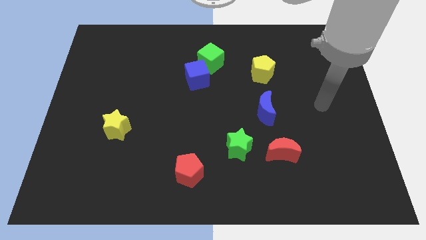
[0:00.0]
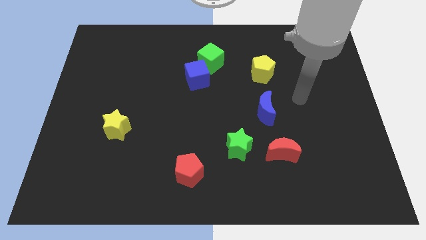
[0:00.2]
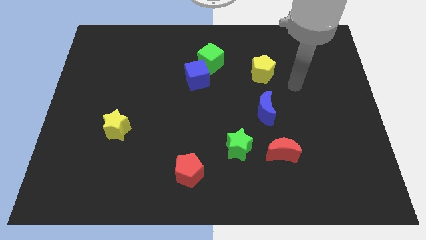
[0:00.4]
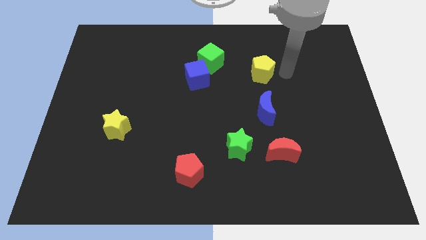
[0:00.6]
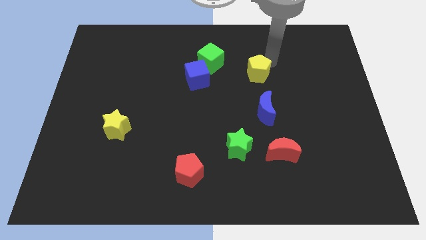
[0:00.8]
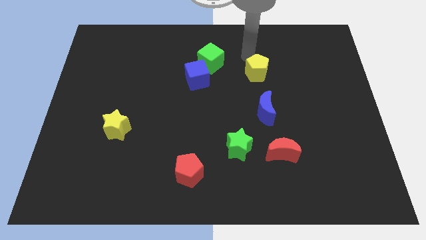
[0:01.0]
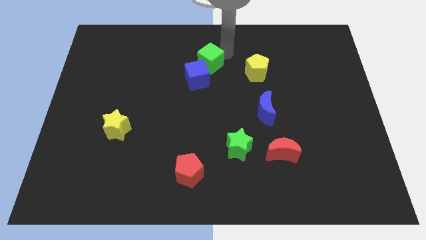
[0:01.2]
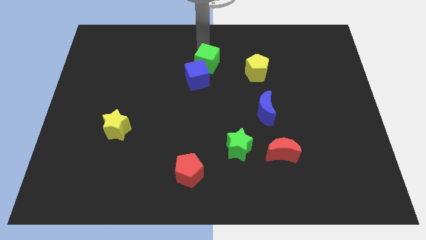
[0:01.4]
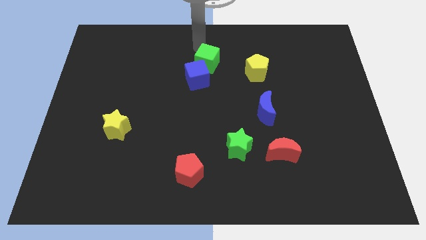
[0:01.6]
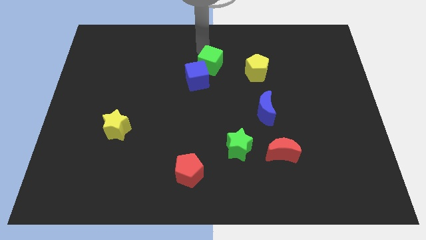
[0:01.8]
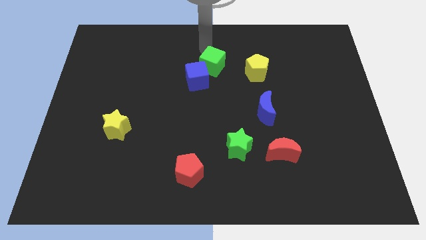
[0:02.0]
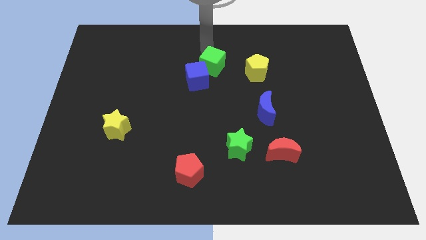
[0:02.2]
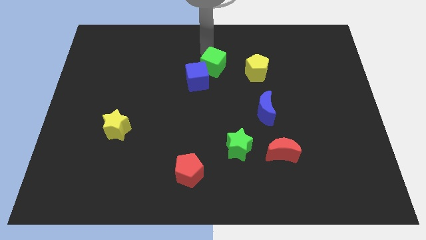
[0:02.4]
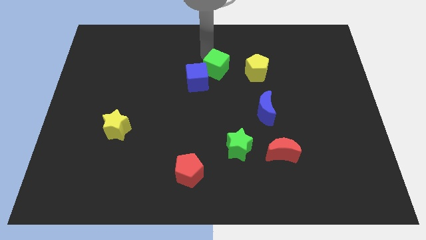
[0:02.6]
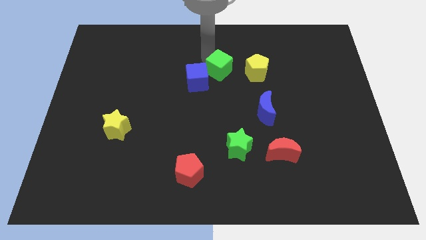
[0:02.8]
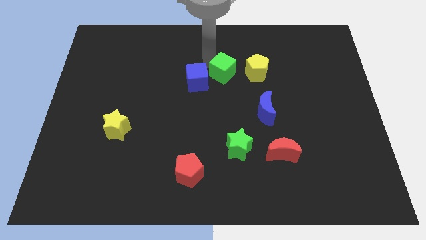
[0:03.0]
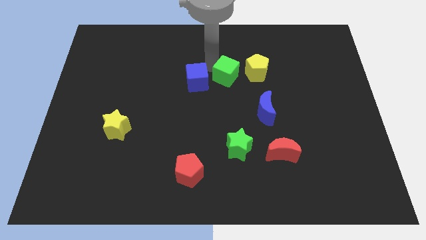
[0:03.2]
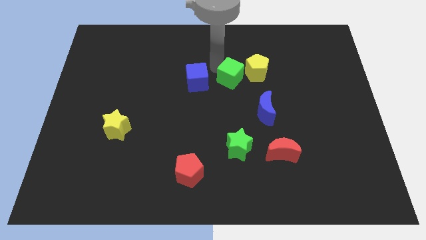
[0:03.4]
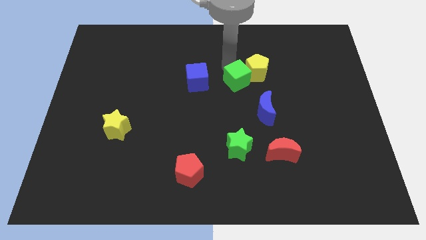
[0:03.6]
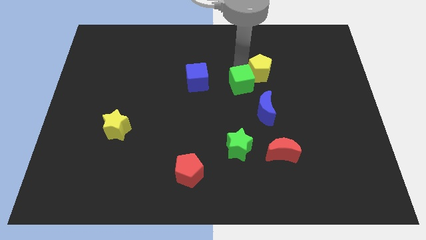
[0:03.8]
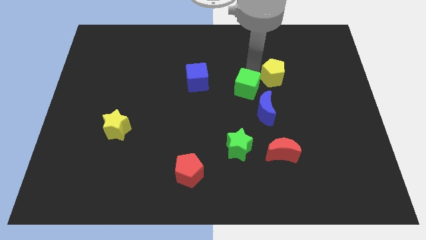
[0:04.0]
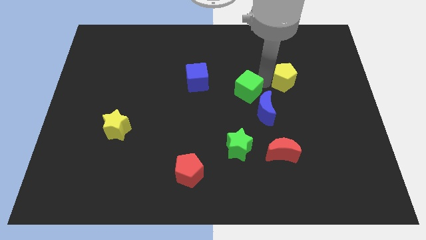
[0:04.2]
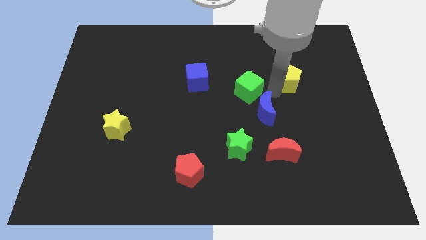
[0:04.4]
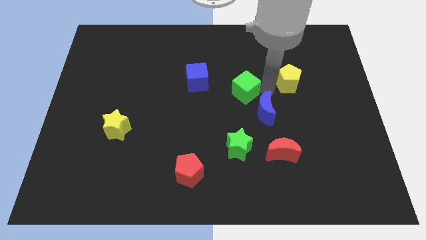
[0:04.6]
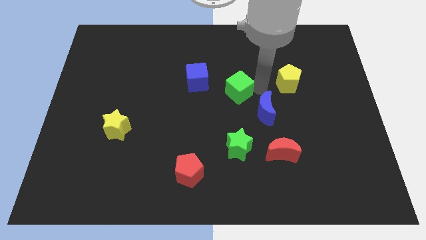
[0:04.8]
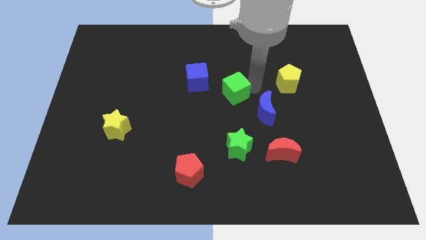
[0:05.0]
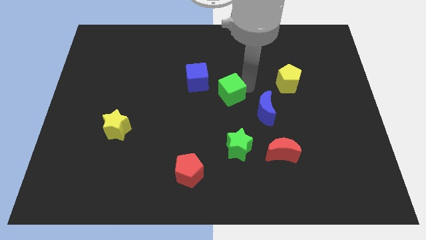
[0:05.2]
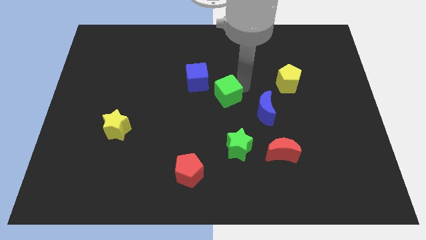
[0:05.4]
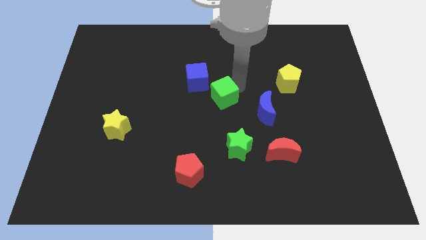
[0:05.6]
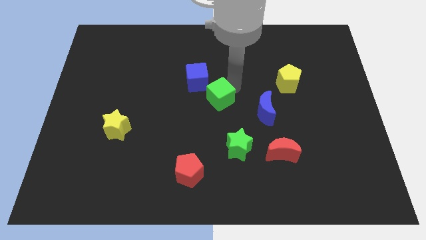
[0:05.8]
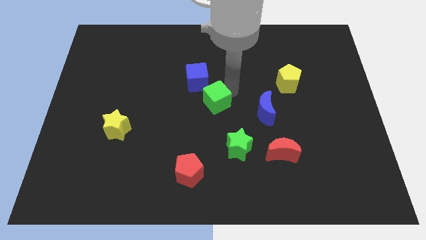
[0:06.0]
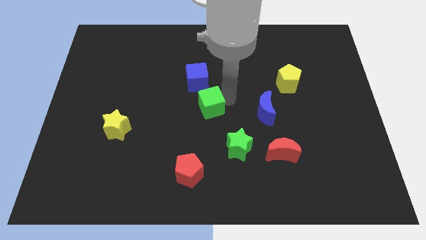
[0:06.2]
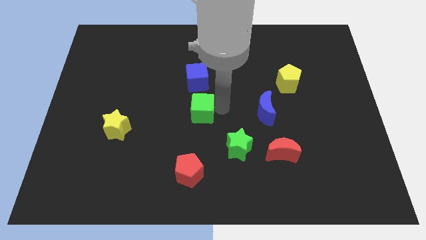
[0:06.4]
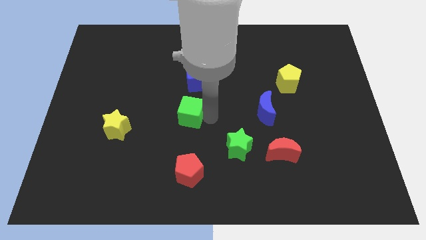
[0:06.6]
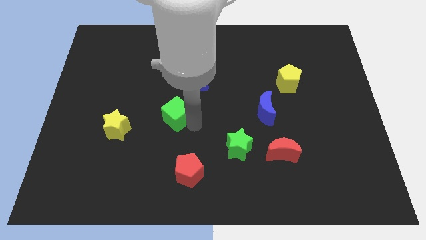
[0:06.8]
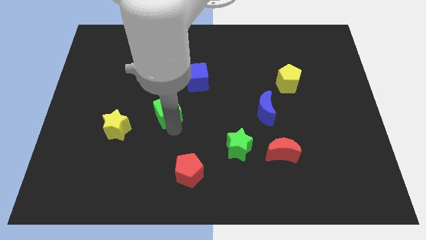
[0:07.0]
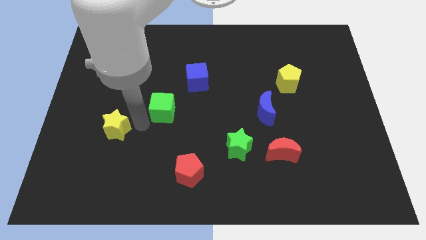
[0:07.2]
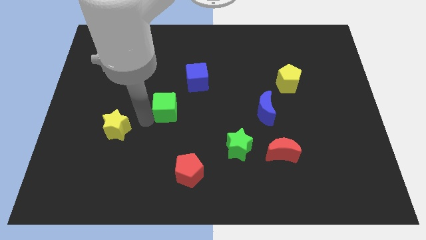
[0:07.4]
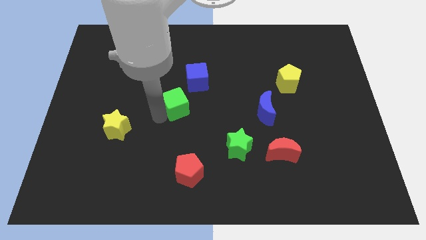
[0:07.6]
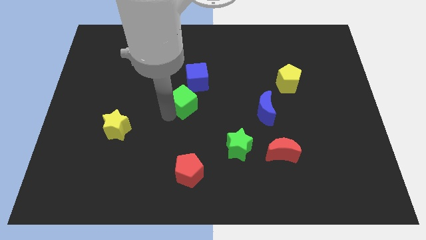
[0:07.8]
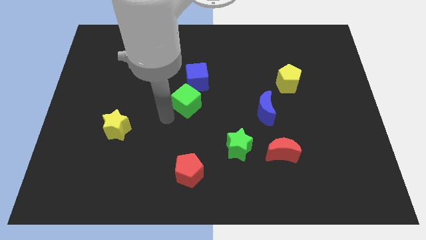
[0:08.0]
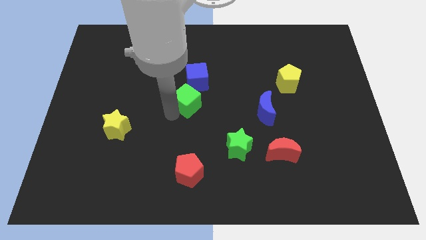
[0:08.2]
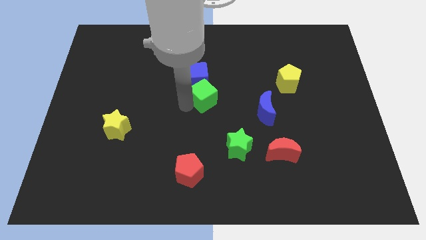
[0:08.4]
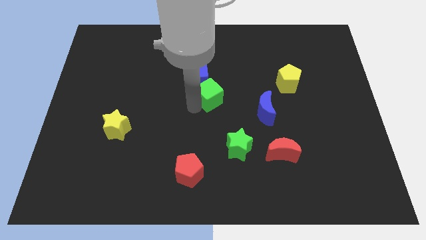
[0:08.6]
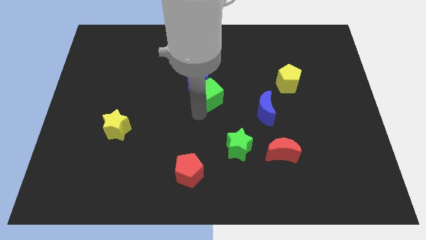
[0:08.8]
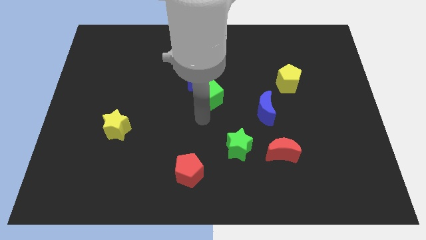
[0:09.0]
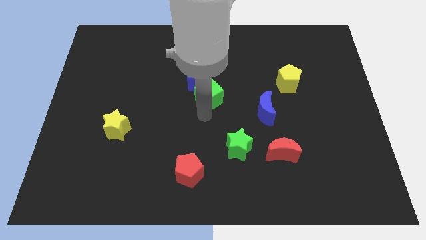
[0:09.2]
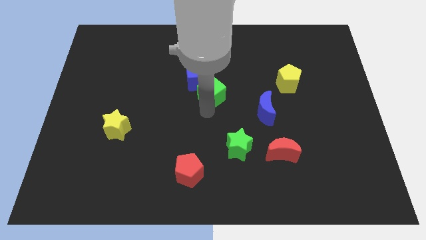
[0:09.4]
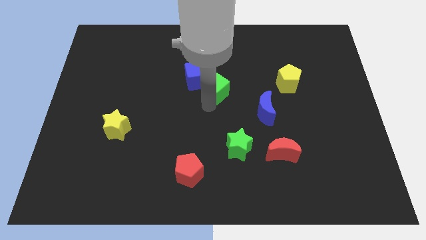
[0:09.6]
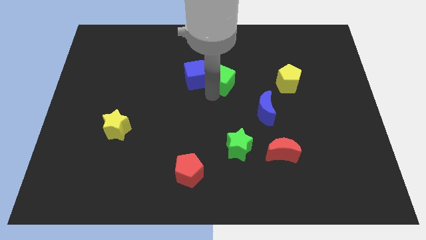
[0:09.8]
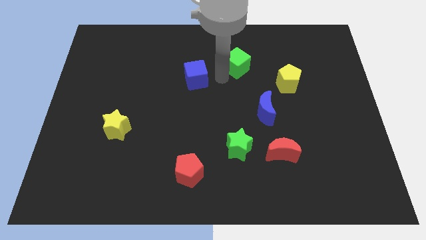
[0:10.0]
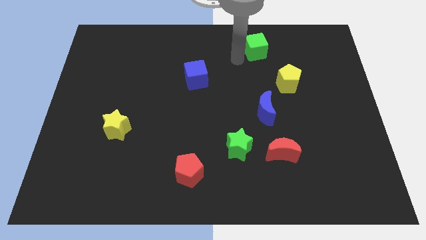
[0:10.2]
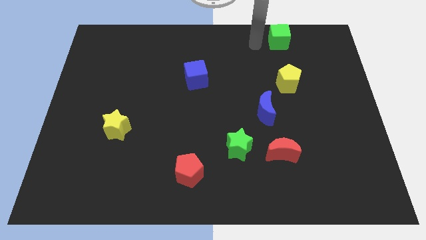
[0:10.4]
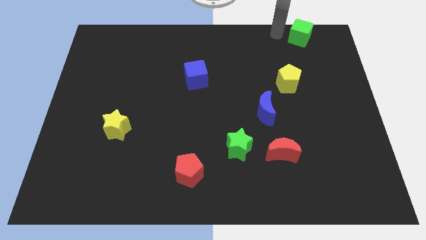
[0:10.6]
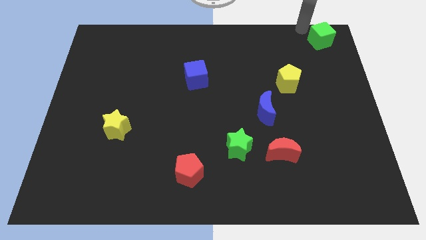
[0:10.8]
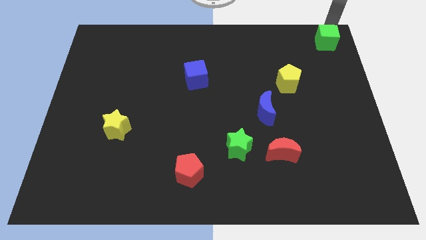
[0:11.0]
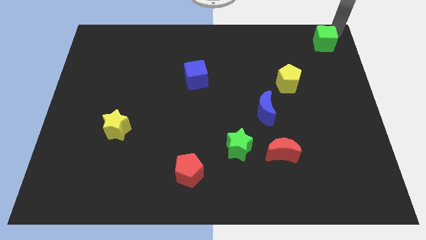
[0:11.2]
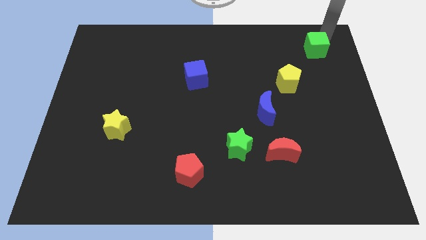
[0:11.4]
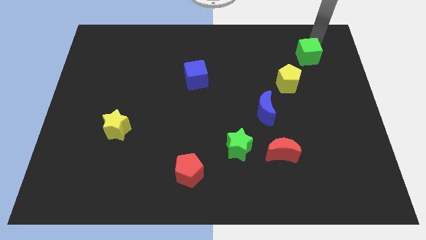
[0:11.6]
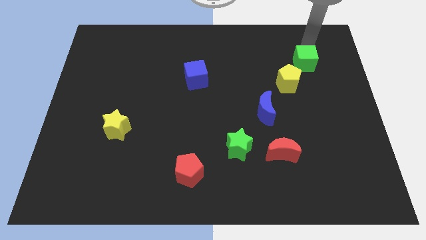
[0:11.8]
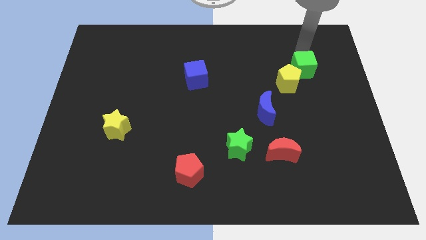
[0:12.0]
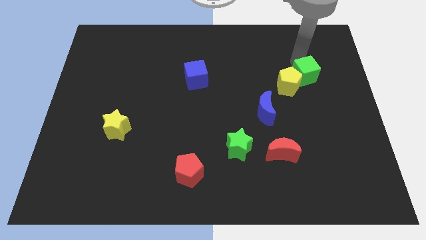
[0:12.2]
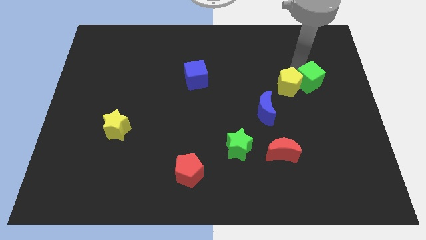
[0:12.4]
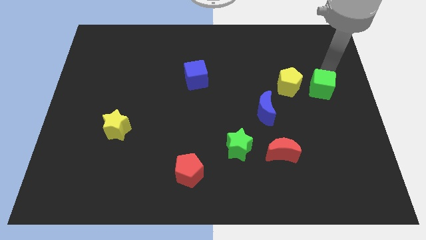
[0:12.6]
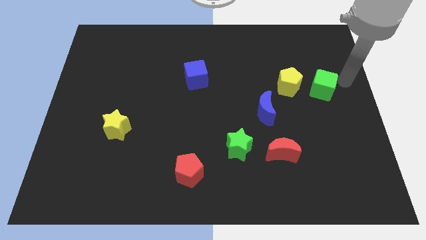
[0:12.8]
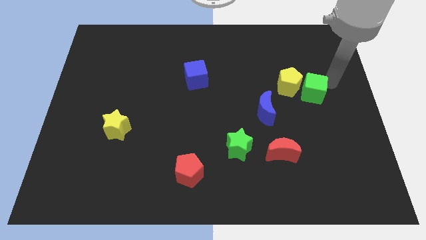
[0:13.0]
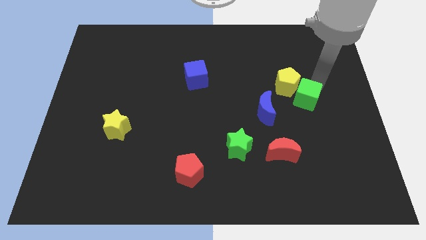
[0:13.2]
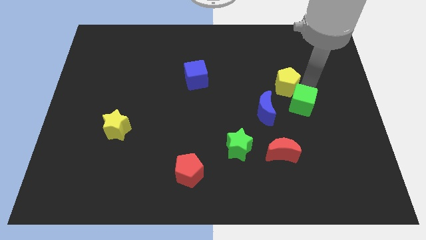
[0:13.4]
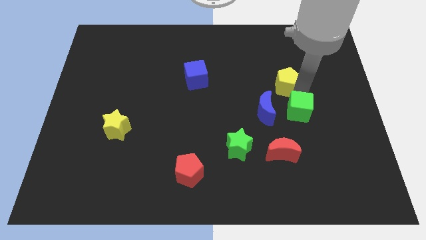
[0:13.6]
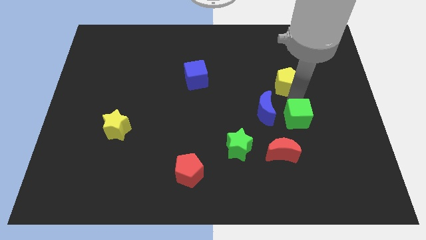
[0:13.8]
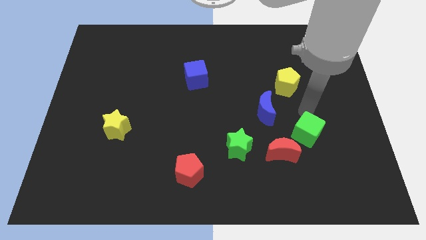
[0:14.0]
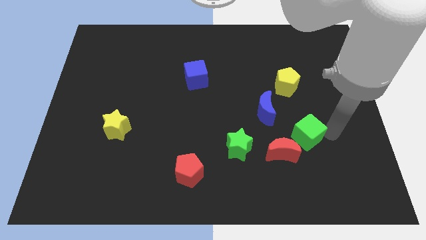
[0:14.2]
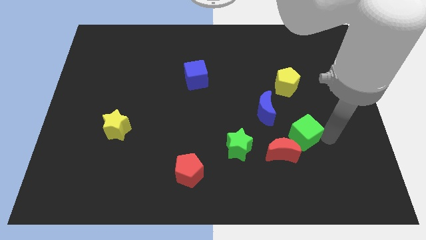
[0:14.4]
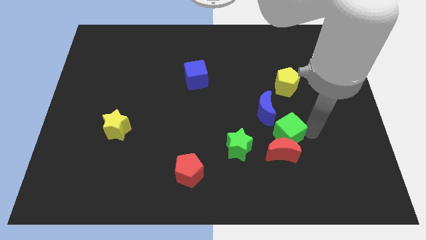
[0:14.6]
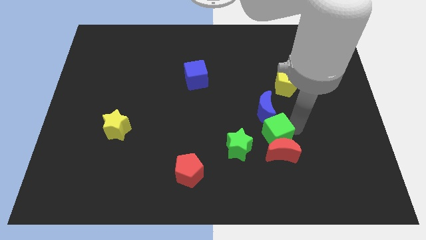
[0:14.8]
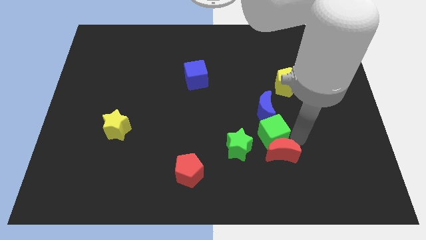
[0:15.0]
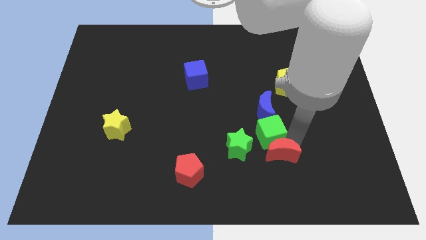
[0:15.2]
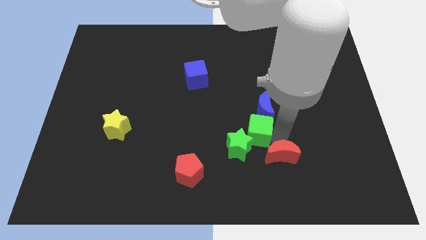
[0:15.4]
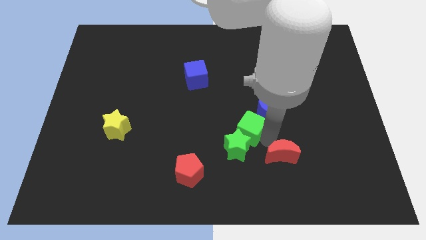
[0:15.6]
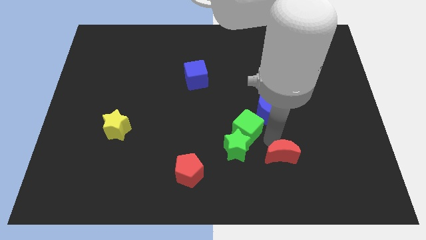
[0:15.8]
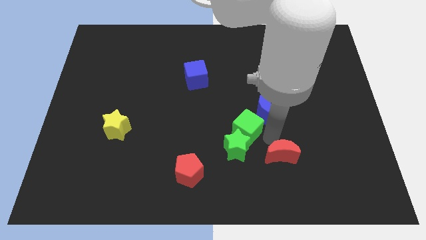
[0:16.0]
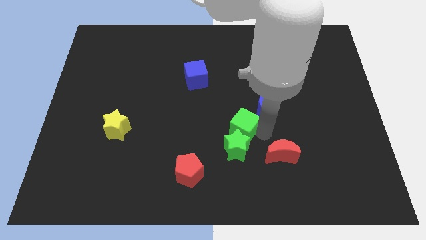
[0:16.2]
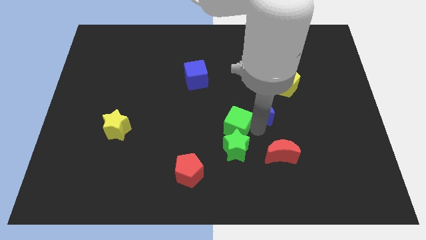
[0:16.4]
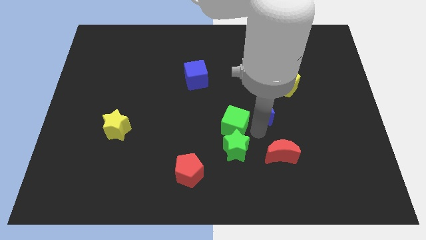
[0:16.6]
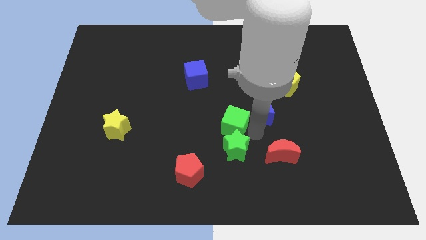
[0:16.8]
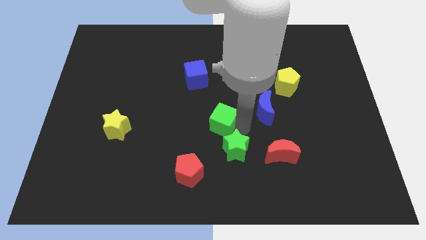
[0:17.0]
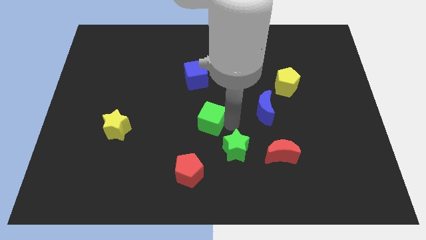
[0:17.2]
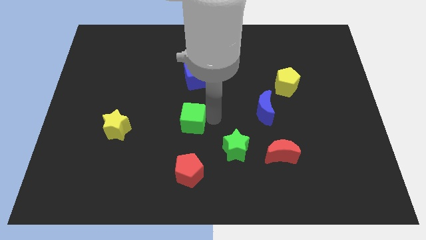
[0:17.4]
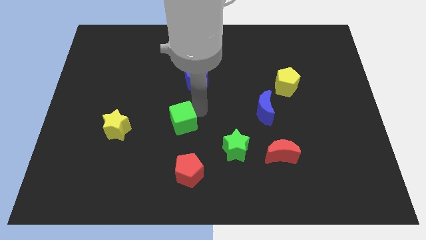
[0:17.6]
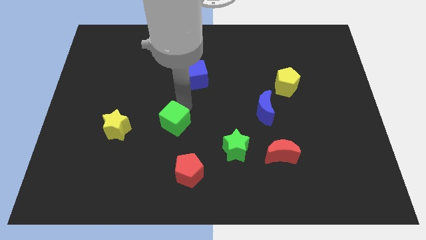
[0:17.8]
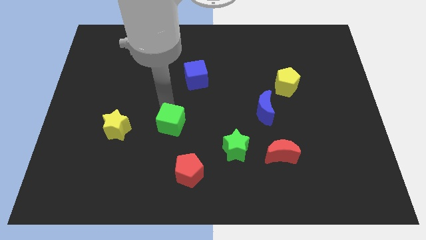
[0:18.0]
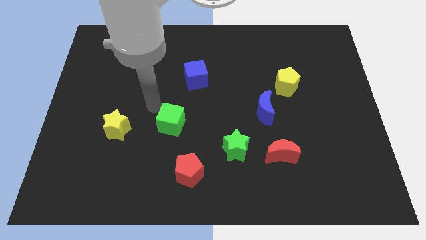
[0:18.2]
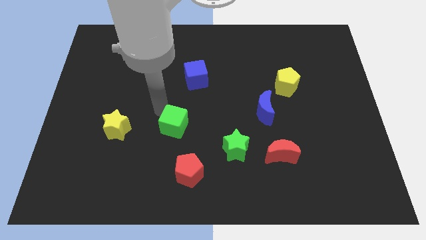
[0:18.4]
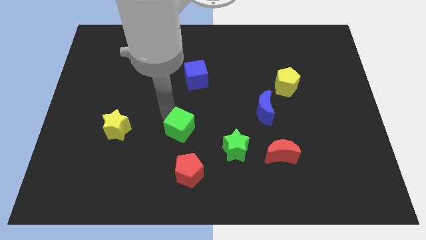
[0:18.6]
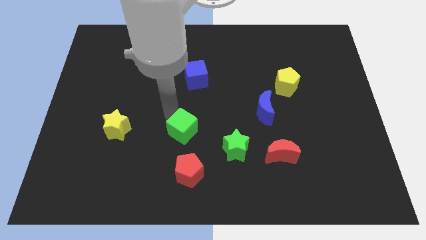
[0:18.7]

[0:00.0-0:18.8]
slide the green cube down
